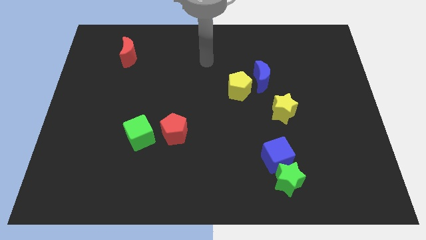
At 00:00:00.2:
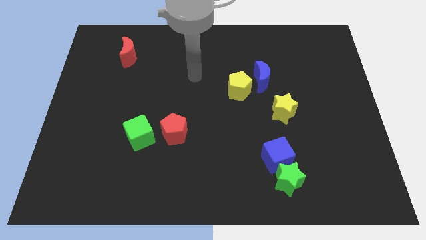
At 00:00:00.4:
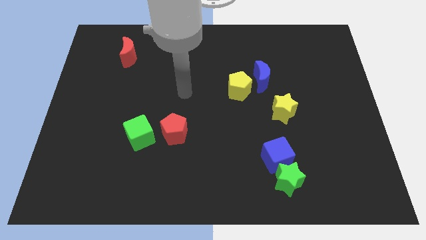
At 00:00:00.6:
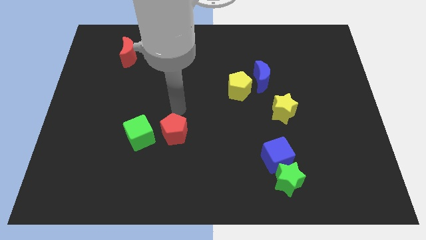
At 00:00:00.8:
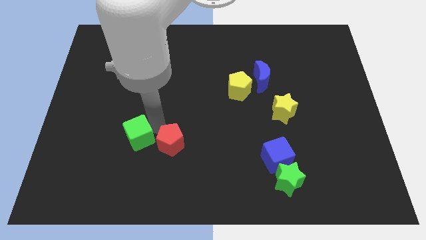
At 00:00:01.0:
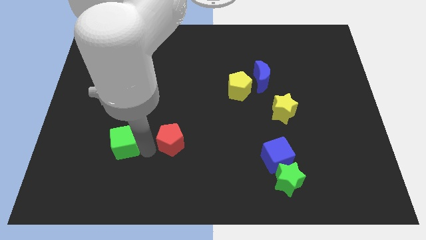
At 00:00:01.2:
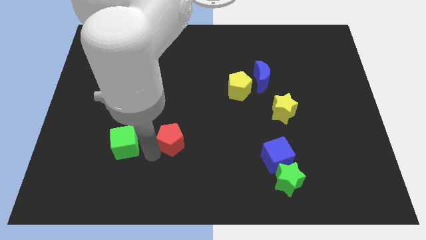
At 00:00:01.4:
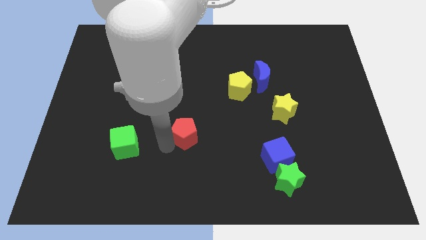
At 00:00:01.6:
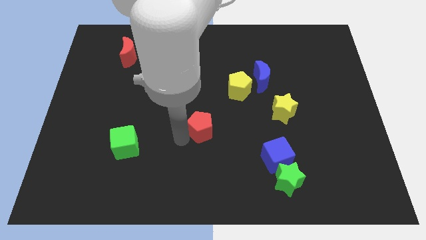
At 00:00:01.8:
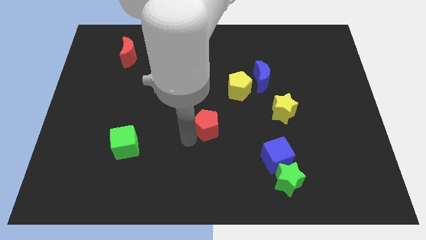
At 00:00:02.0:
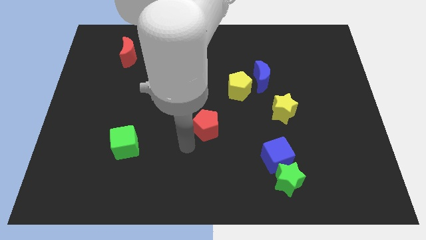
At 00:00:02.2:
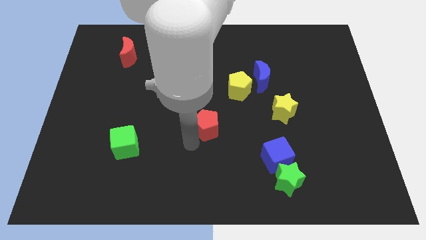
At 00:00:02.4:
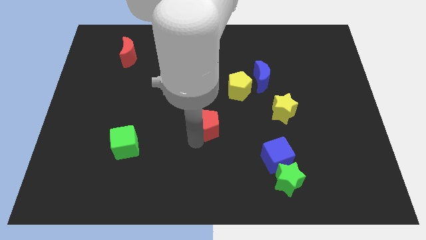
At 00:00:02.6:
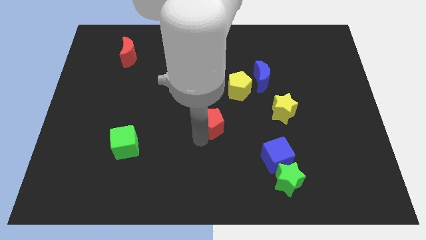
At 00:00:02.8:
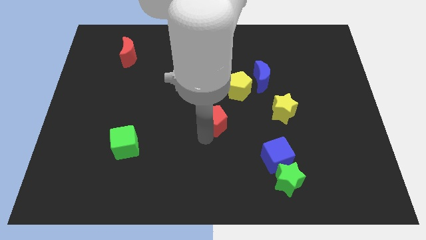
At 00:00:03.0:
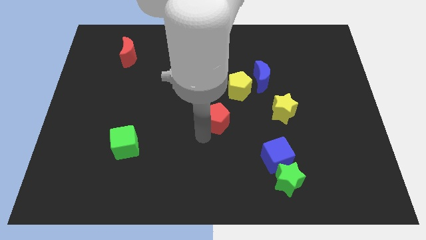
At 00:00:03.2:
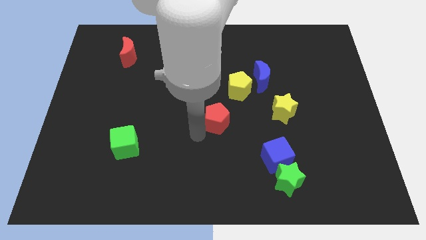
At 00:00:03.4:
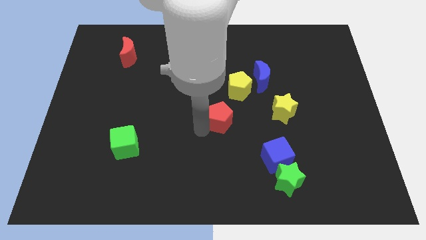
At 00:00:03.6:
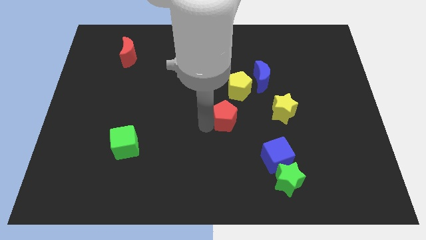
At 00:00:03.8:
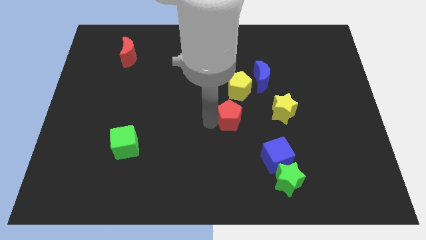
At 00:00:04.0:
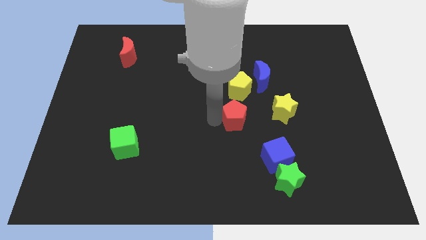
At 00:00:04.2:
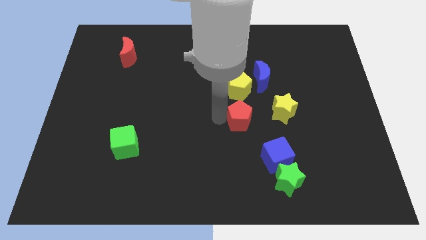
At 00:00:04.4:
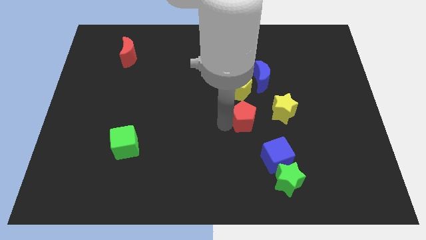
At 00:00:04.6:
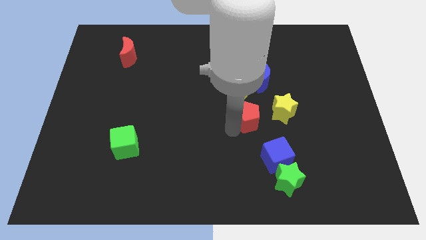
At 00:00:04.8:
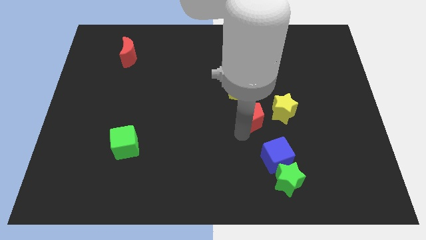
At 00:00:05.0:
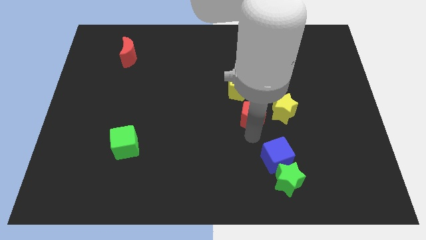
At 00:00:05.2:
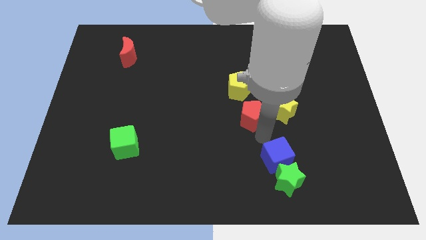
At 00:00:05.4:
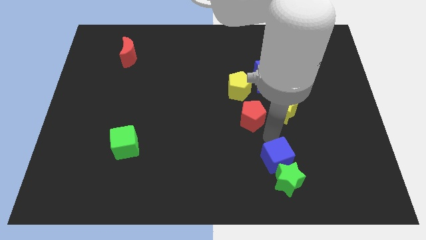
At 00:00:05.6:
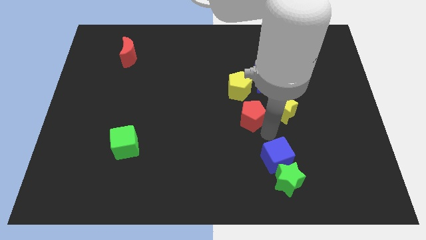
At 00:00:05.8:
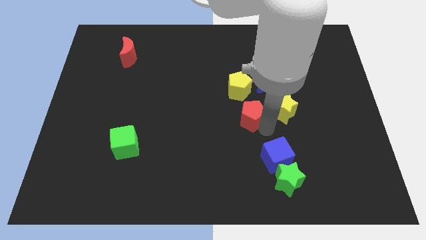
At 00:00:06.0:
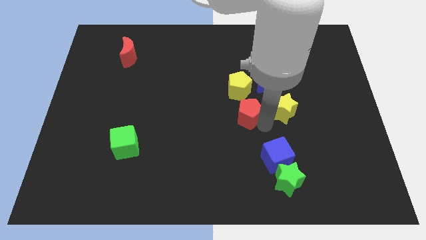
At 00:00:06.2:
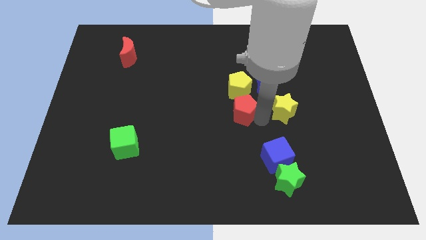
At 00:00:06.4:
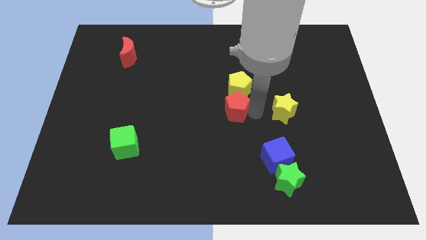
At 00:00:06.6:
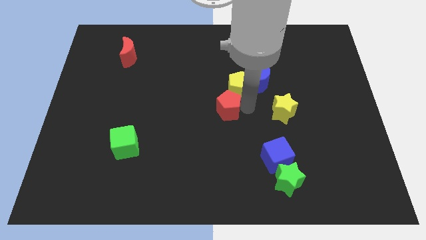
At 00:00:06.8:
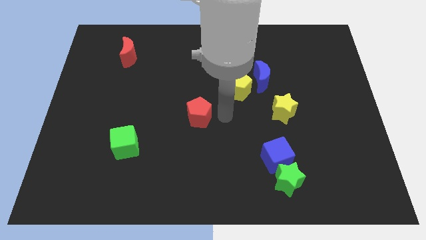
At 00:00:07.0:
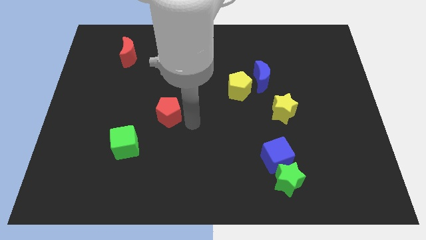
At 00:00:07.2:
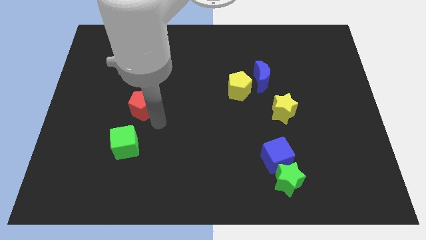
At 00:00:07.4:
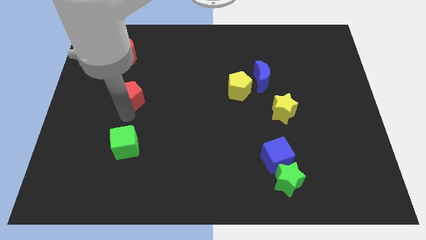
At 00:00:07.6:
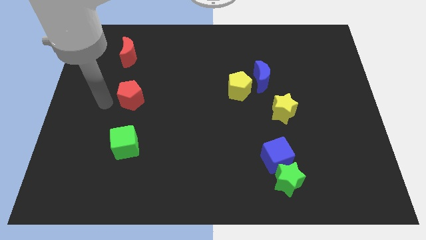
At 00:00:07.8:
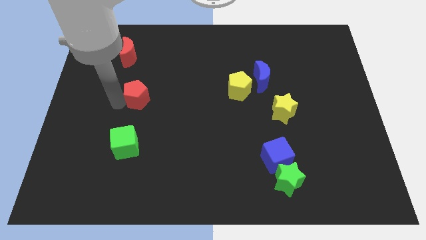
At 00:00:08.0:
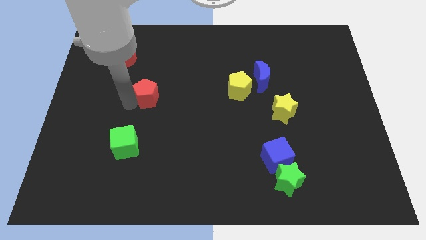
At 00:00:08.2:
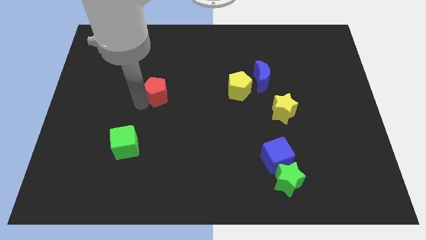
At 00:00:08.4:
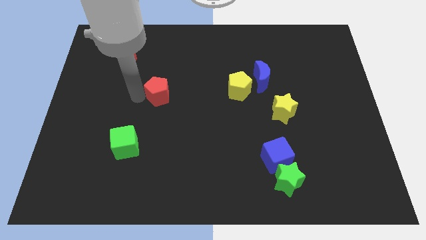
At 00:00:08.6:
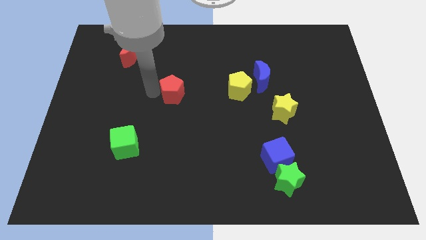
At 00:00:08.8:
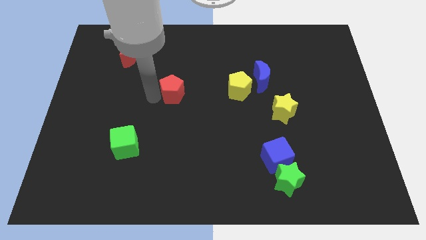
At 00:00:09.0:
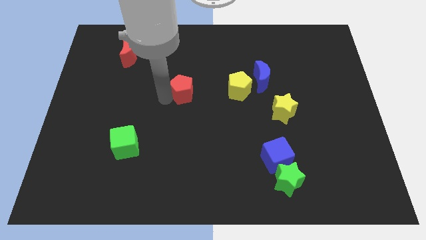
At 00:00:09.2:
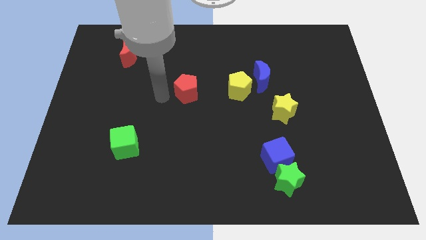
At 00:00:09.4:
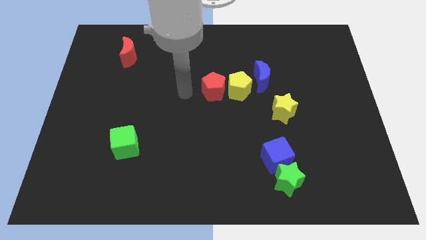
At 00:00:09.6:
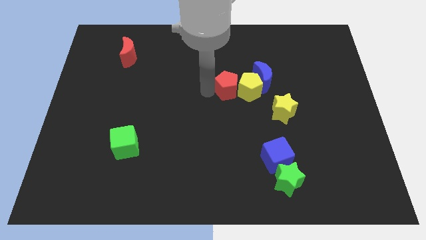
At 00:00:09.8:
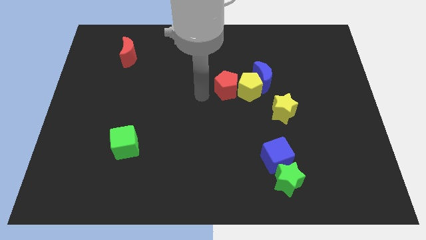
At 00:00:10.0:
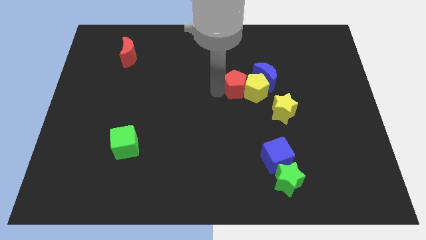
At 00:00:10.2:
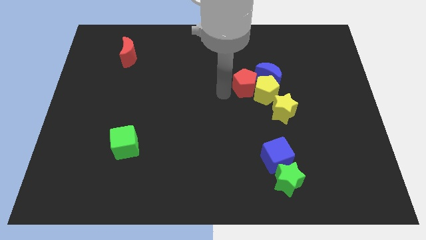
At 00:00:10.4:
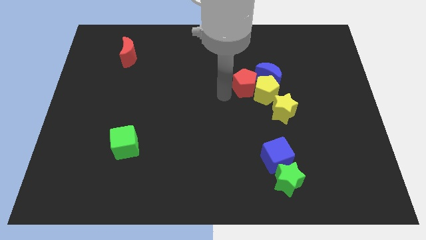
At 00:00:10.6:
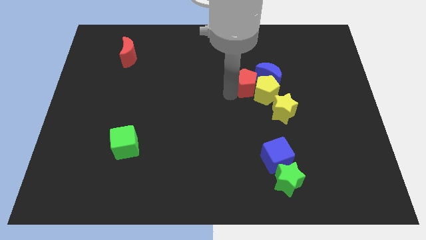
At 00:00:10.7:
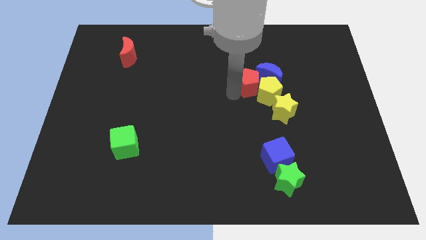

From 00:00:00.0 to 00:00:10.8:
push the red pentagon towards the blue moon
